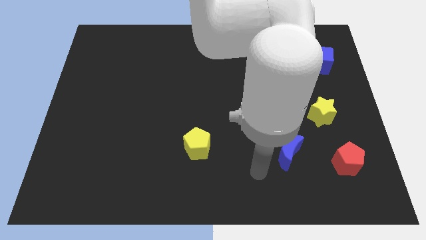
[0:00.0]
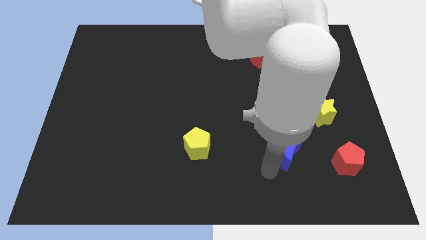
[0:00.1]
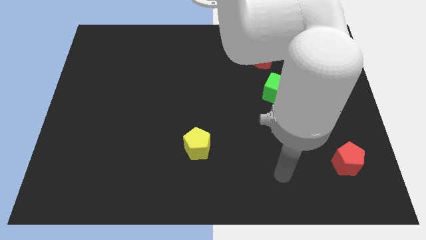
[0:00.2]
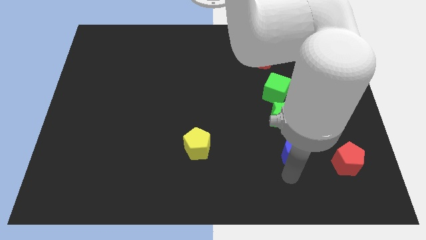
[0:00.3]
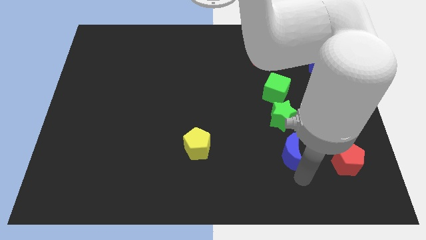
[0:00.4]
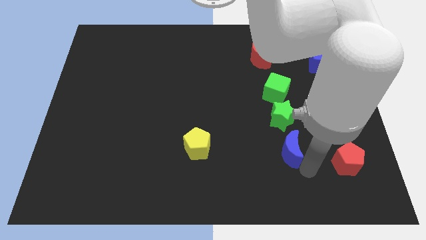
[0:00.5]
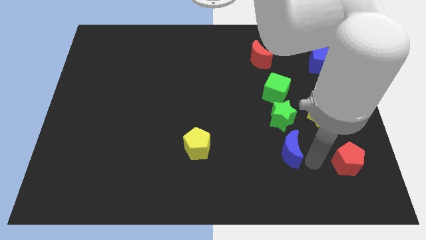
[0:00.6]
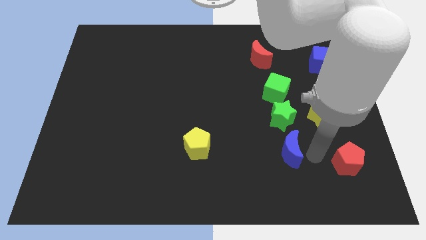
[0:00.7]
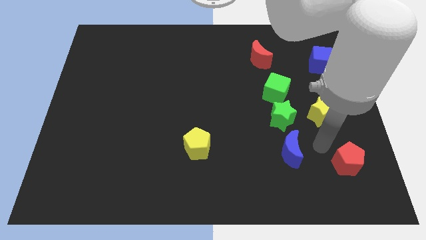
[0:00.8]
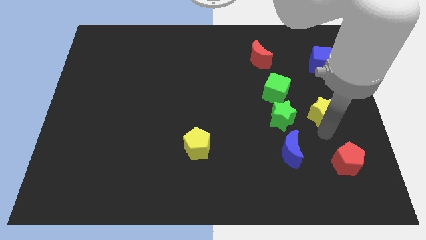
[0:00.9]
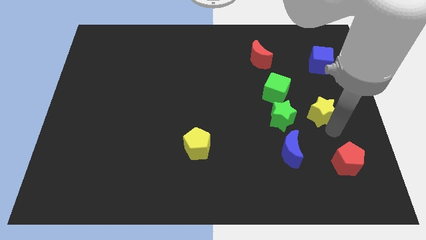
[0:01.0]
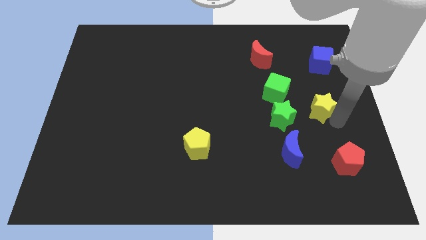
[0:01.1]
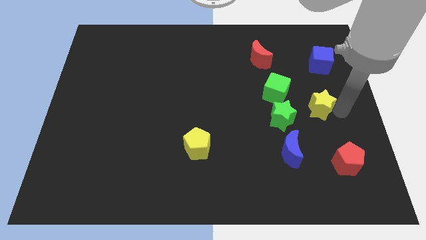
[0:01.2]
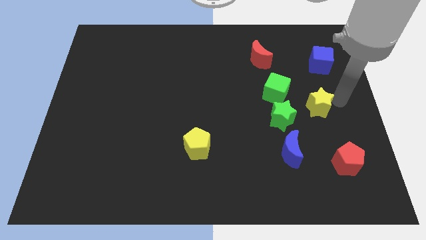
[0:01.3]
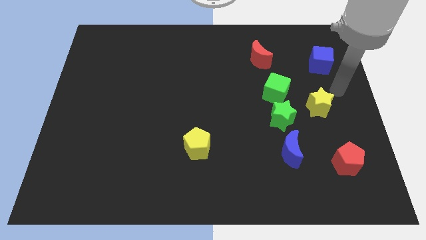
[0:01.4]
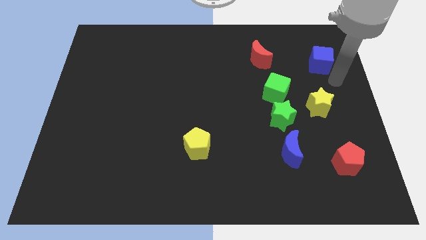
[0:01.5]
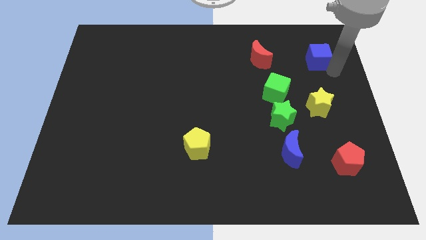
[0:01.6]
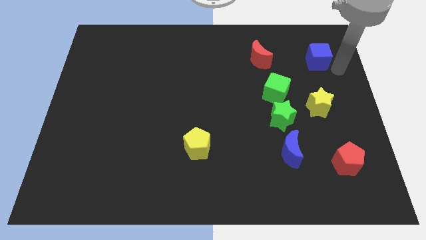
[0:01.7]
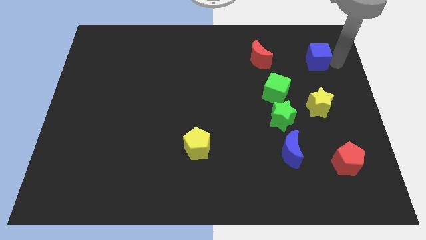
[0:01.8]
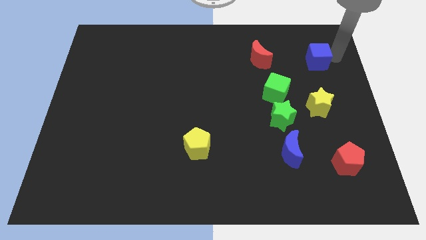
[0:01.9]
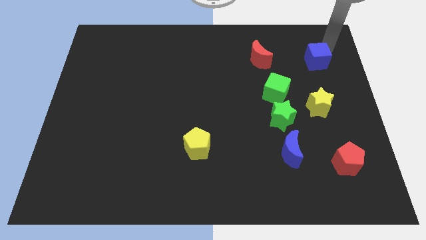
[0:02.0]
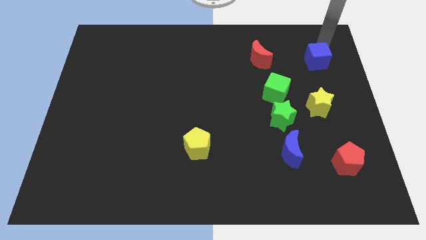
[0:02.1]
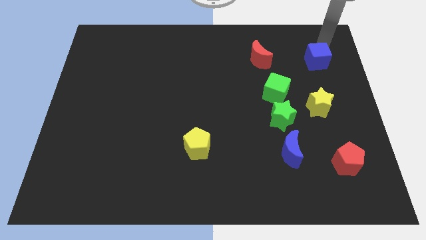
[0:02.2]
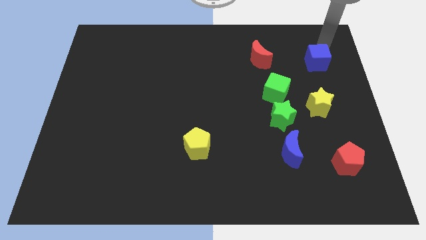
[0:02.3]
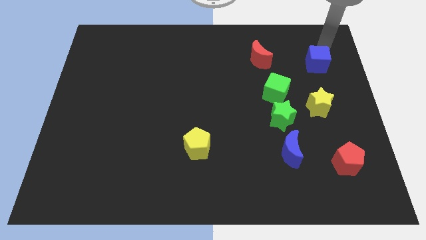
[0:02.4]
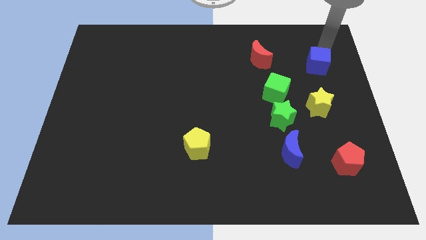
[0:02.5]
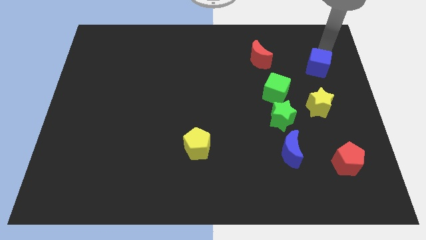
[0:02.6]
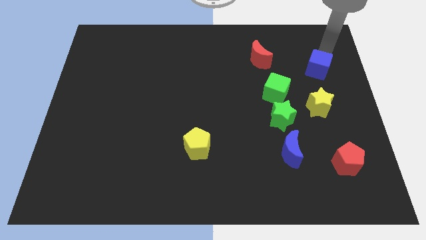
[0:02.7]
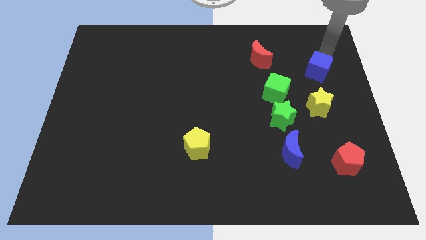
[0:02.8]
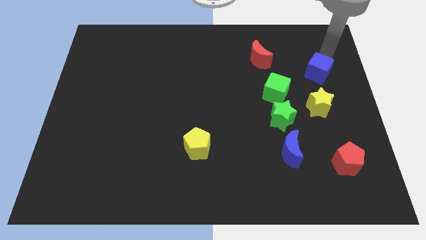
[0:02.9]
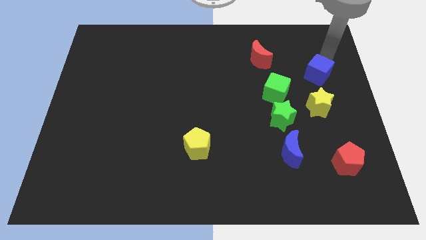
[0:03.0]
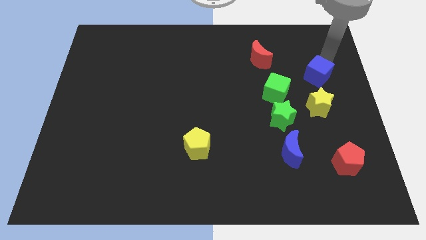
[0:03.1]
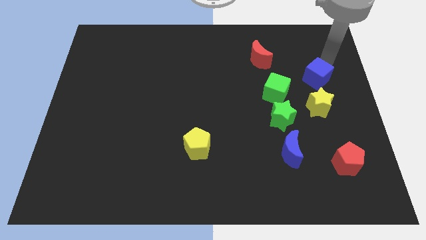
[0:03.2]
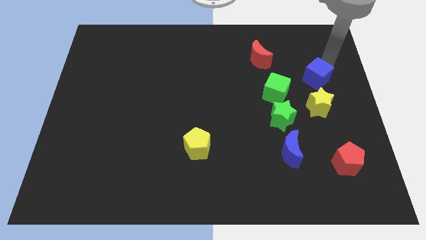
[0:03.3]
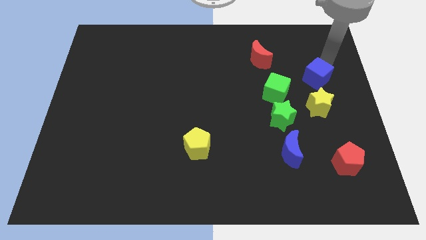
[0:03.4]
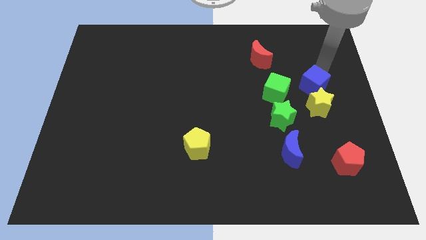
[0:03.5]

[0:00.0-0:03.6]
push the blue cube slightly downwards and left

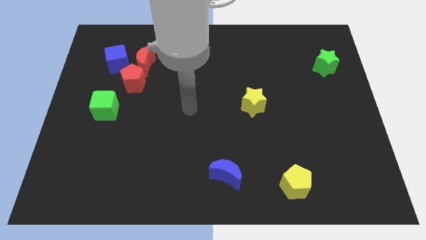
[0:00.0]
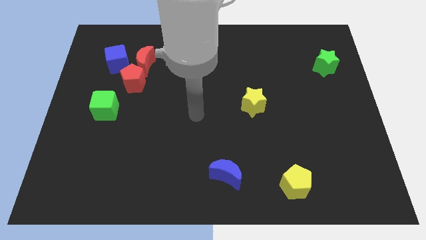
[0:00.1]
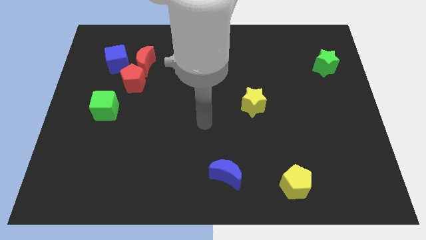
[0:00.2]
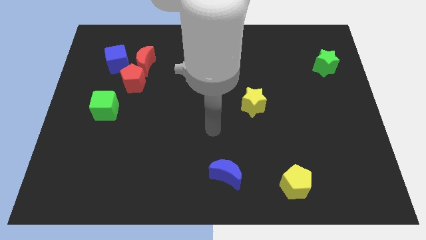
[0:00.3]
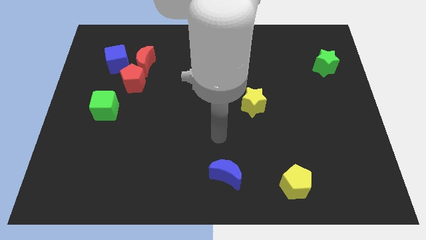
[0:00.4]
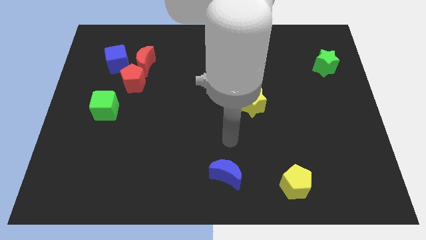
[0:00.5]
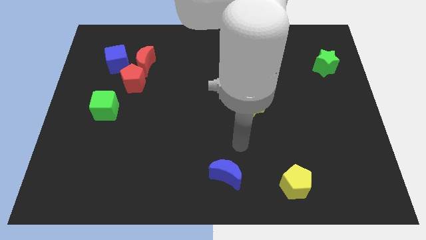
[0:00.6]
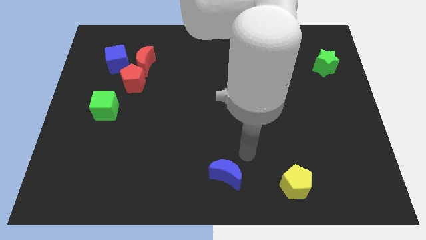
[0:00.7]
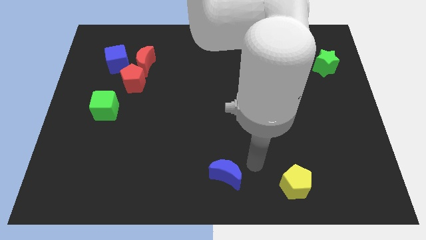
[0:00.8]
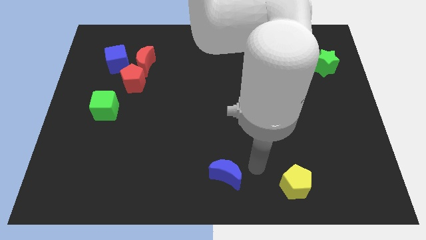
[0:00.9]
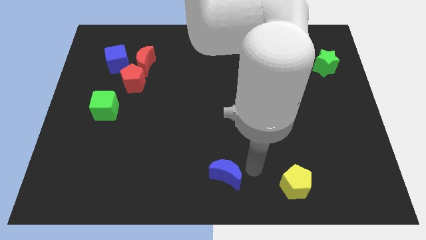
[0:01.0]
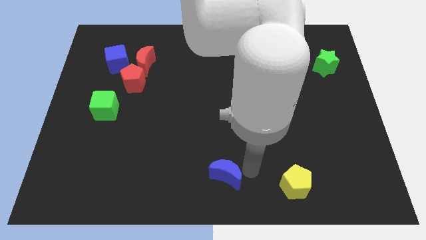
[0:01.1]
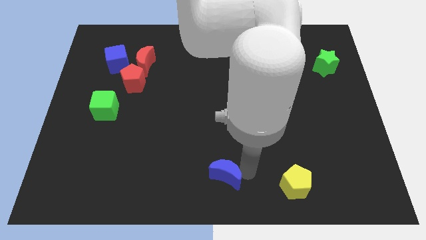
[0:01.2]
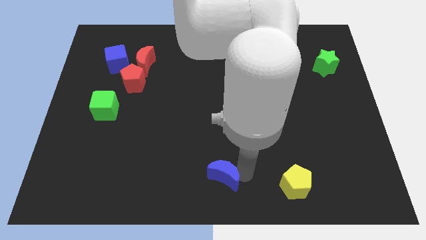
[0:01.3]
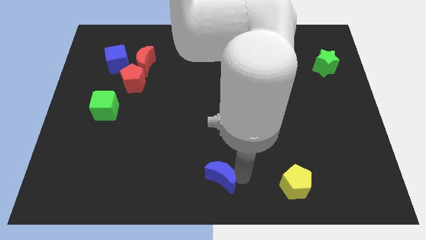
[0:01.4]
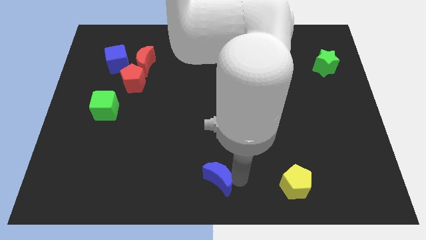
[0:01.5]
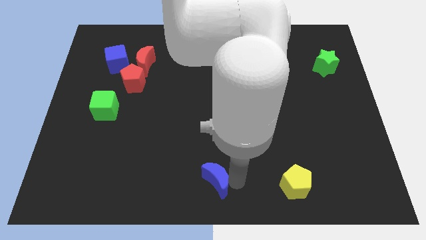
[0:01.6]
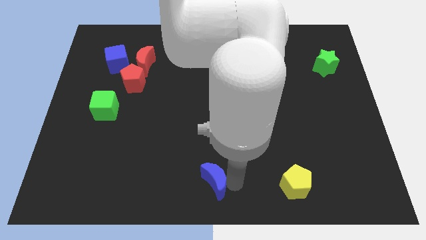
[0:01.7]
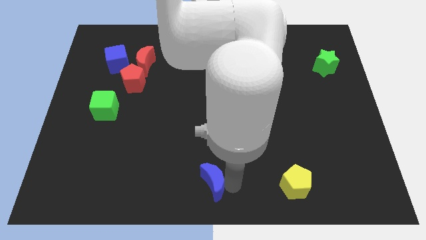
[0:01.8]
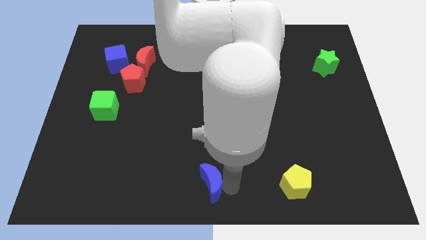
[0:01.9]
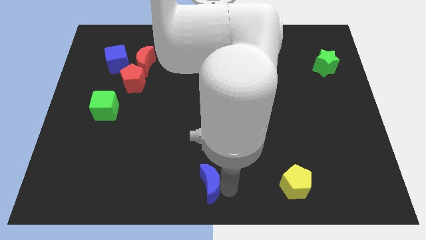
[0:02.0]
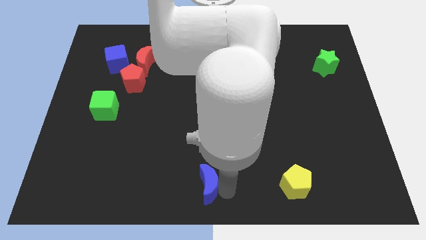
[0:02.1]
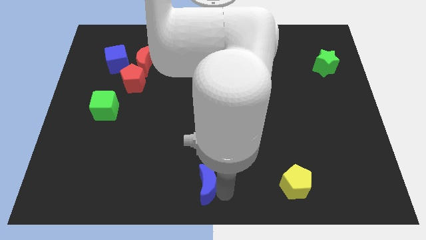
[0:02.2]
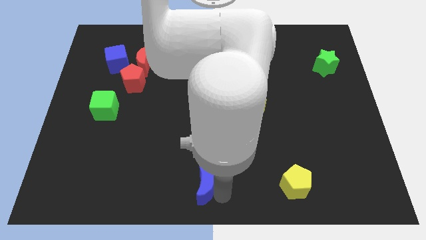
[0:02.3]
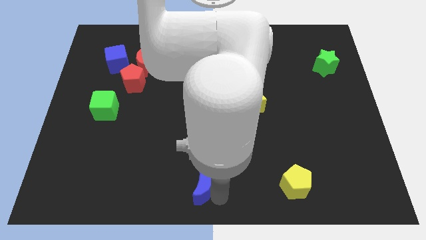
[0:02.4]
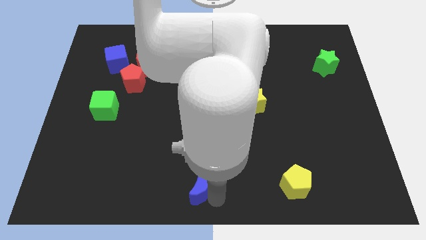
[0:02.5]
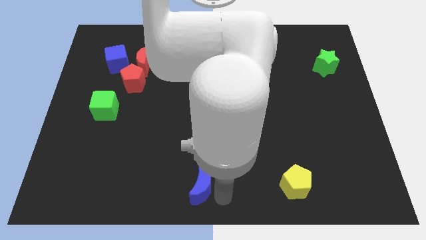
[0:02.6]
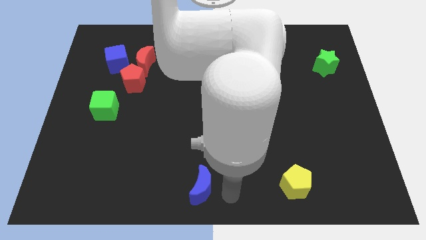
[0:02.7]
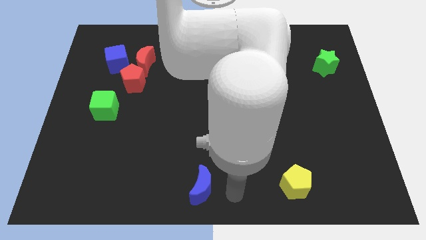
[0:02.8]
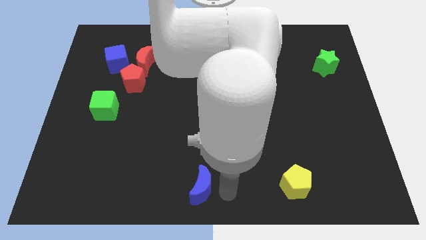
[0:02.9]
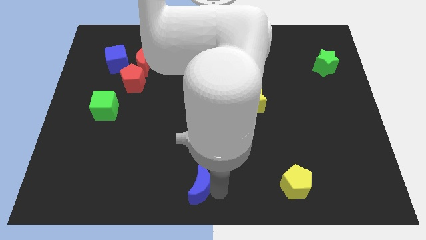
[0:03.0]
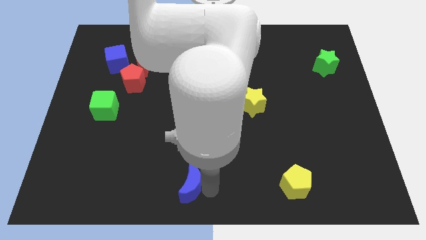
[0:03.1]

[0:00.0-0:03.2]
move the blue moon a bit to the left

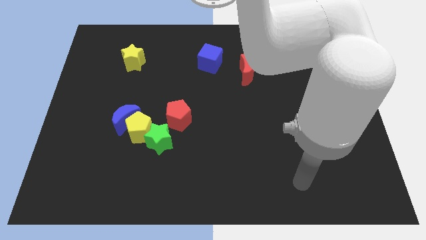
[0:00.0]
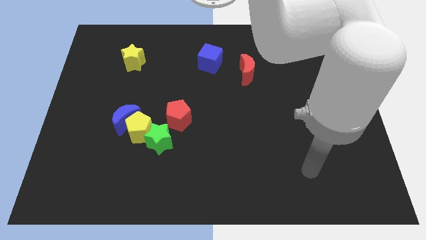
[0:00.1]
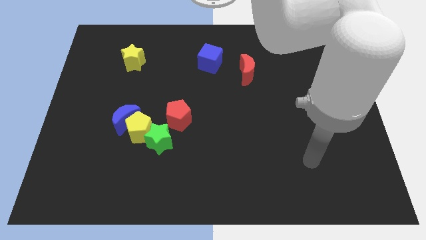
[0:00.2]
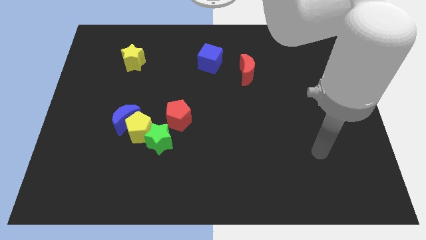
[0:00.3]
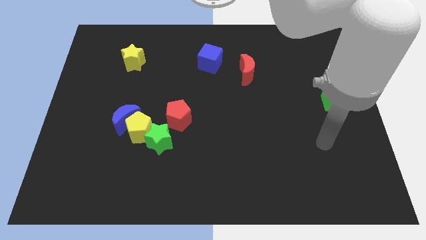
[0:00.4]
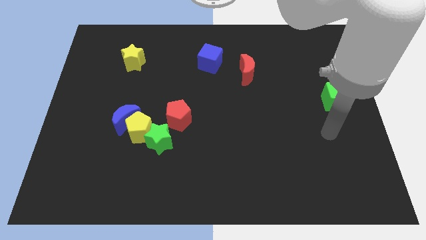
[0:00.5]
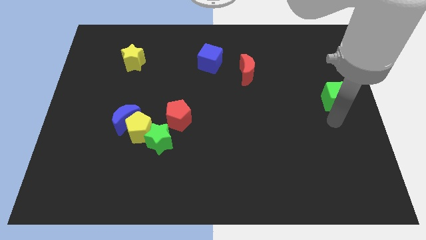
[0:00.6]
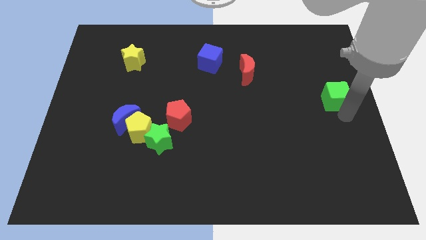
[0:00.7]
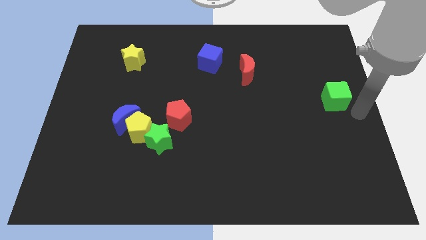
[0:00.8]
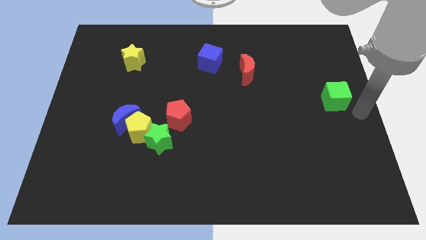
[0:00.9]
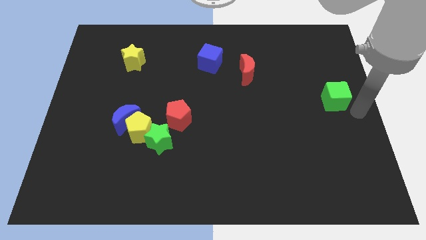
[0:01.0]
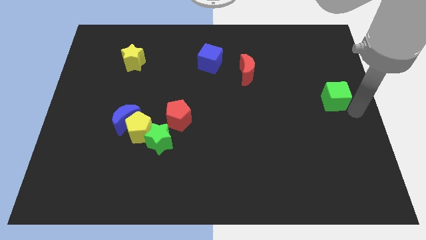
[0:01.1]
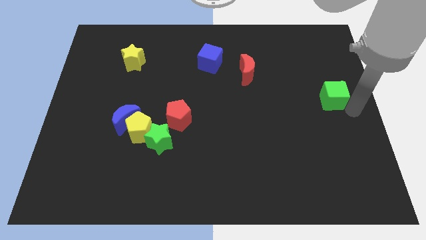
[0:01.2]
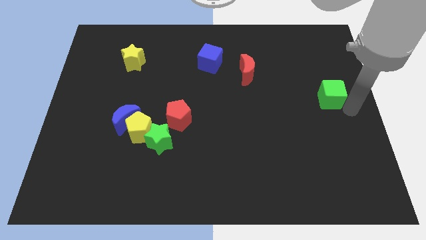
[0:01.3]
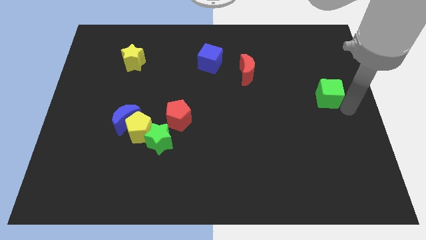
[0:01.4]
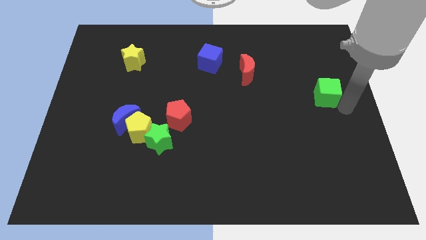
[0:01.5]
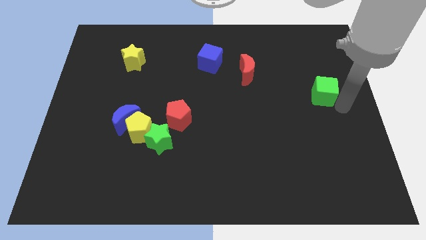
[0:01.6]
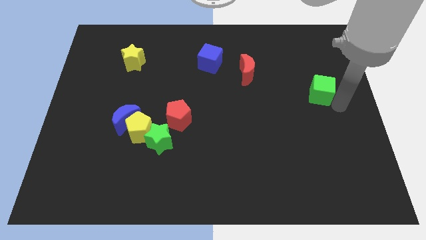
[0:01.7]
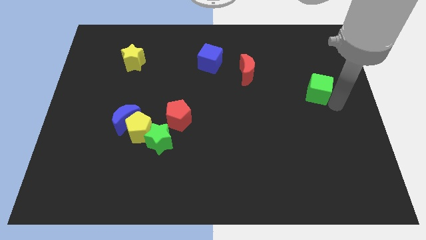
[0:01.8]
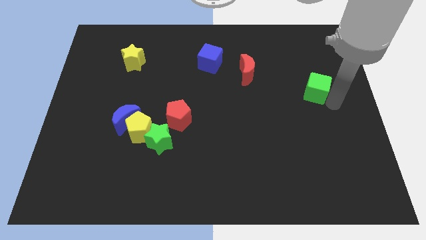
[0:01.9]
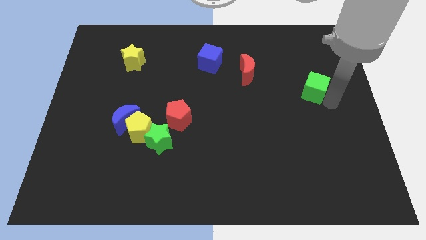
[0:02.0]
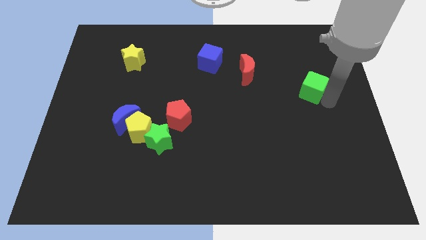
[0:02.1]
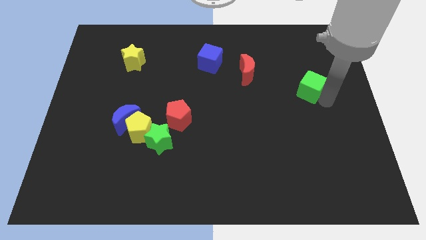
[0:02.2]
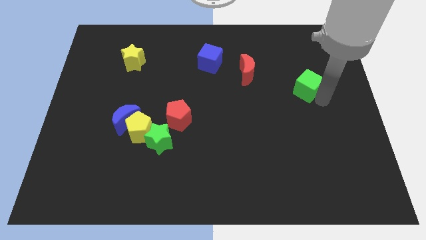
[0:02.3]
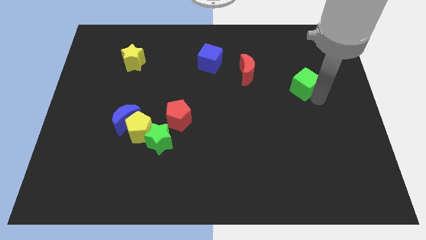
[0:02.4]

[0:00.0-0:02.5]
slightly move the green cube up and left diagonally
